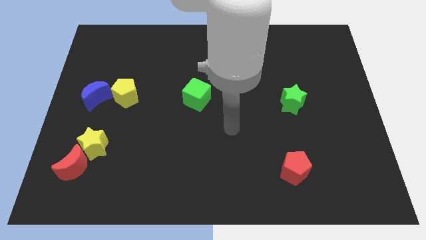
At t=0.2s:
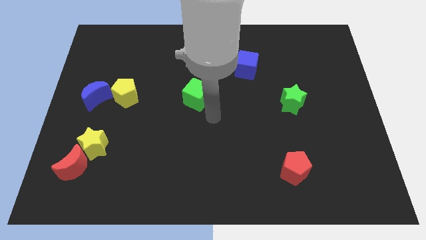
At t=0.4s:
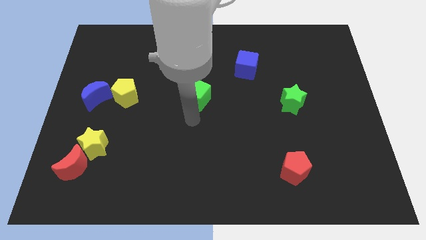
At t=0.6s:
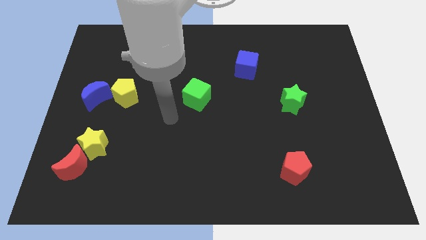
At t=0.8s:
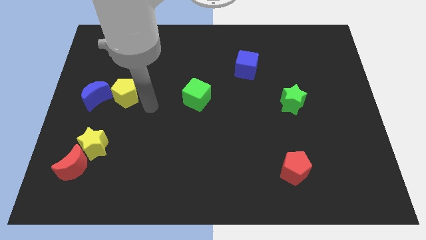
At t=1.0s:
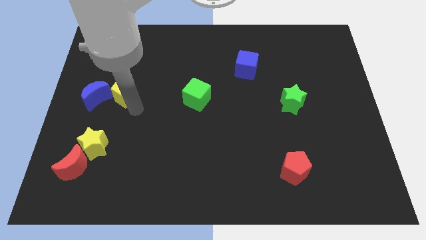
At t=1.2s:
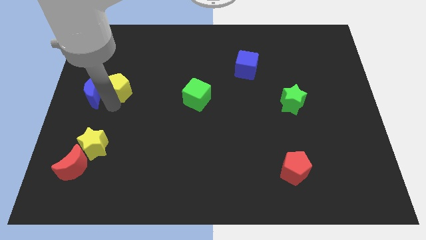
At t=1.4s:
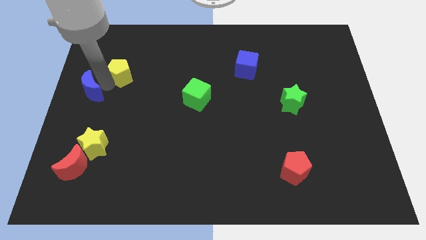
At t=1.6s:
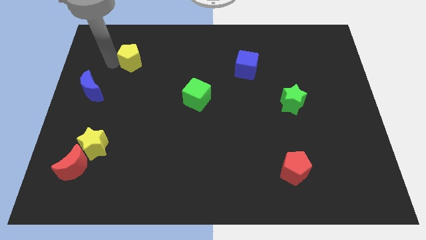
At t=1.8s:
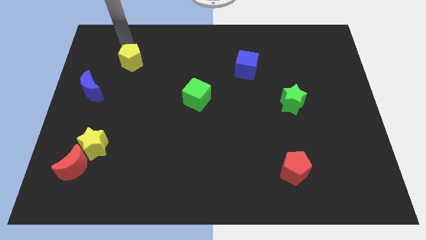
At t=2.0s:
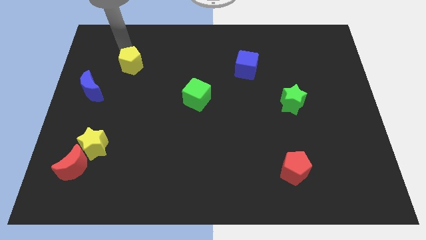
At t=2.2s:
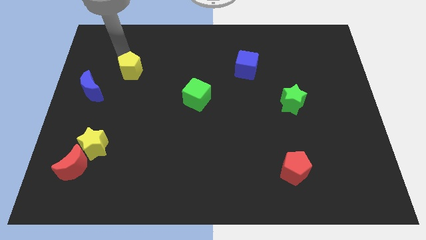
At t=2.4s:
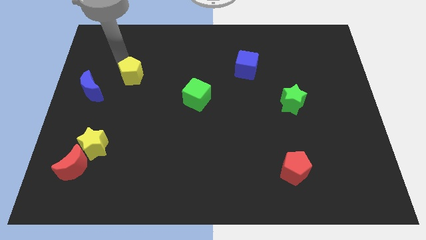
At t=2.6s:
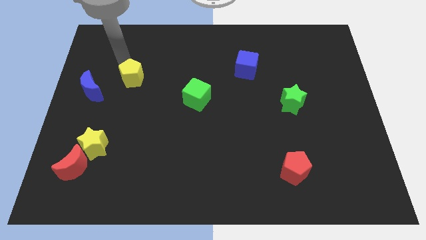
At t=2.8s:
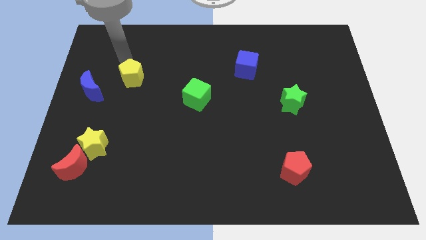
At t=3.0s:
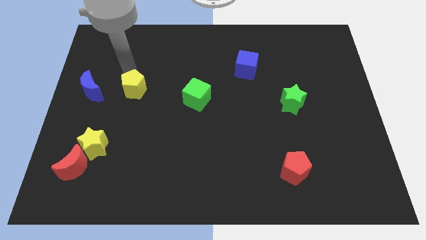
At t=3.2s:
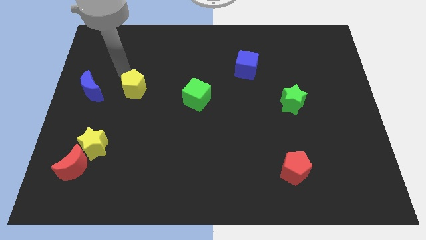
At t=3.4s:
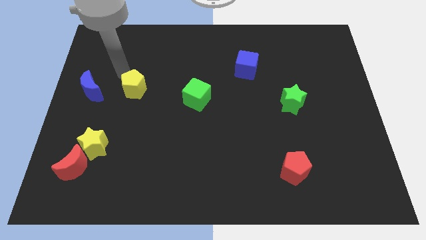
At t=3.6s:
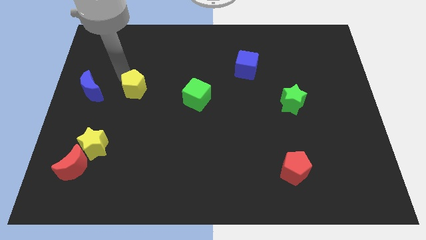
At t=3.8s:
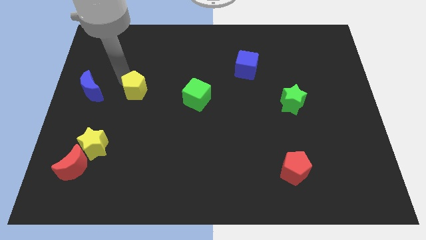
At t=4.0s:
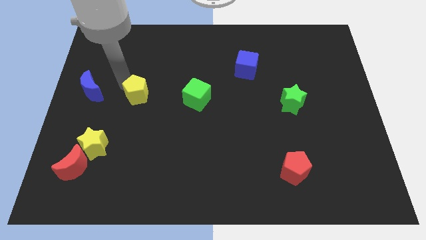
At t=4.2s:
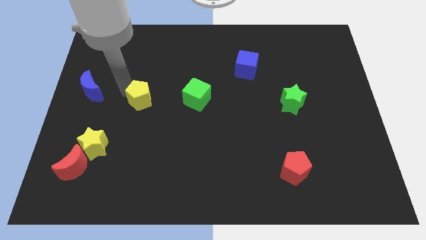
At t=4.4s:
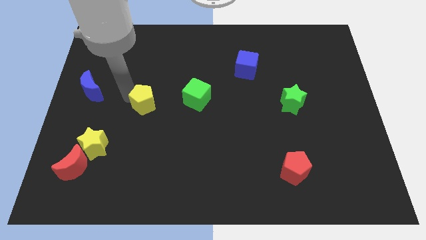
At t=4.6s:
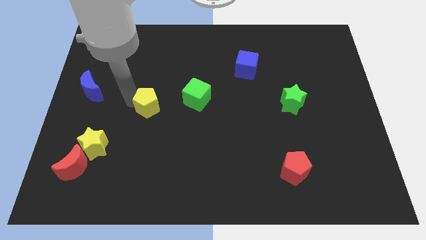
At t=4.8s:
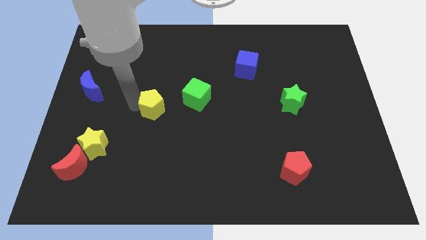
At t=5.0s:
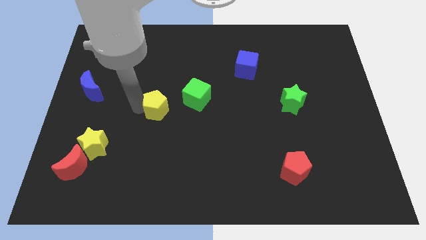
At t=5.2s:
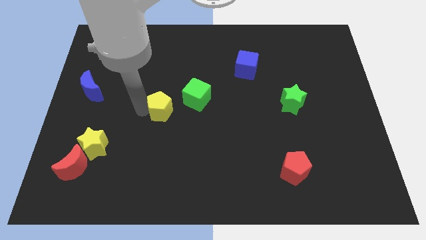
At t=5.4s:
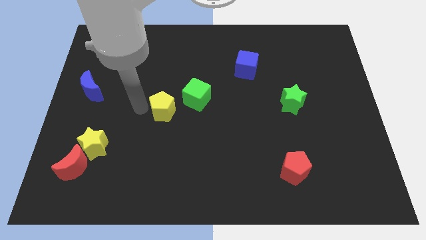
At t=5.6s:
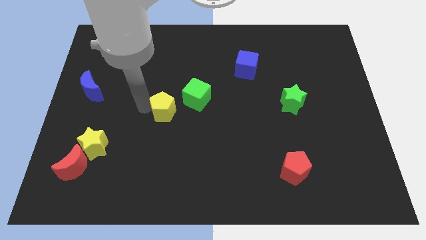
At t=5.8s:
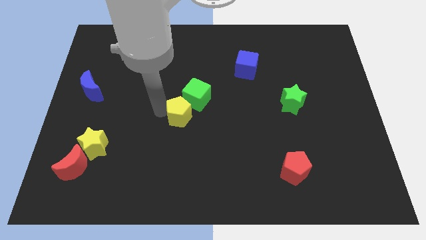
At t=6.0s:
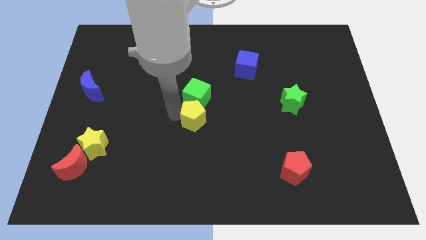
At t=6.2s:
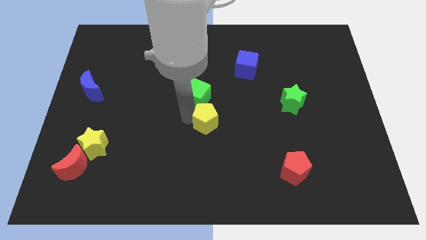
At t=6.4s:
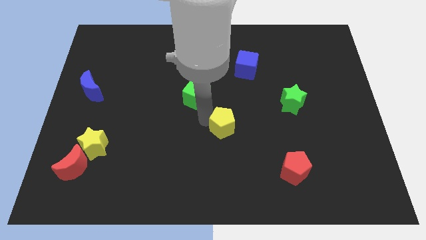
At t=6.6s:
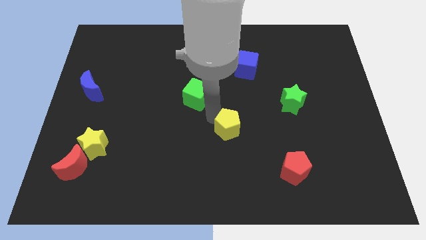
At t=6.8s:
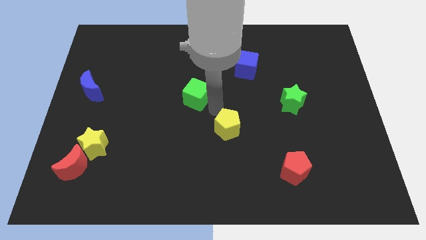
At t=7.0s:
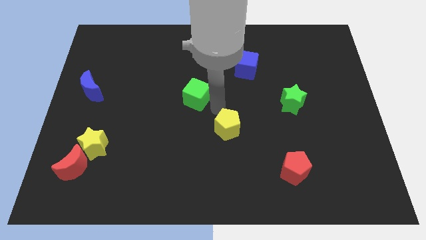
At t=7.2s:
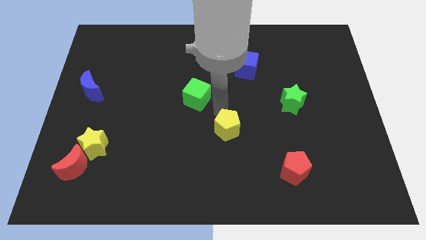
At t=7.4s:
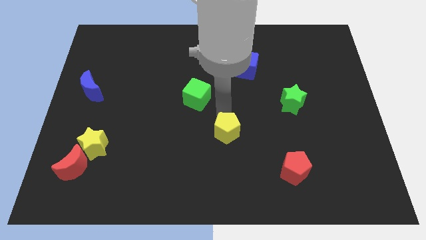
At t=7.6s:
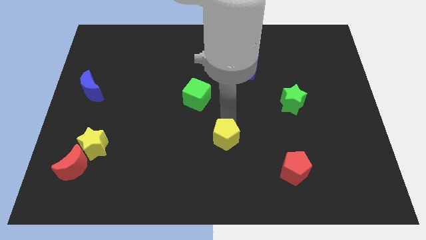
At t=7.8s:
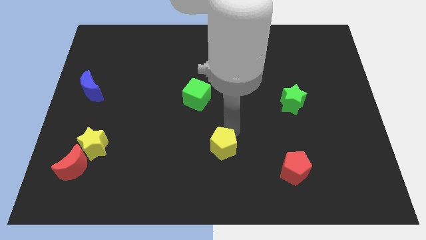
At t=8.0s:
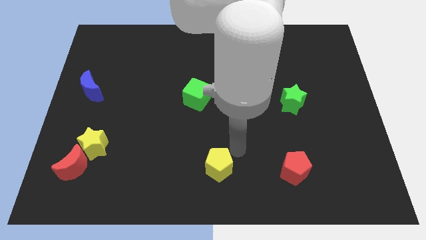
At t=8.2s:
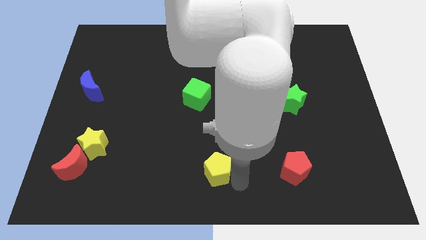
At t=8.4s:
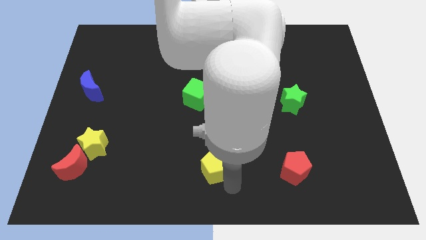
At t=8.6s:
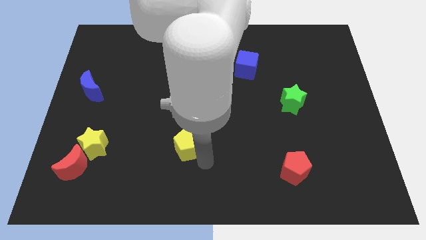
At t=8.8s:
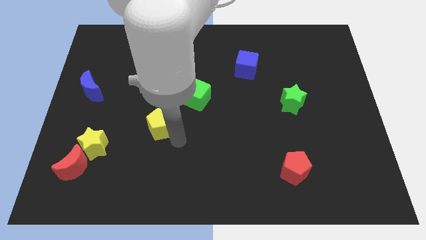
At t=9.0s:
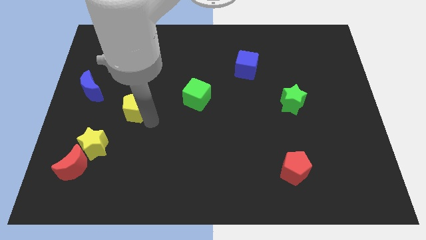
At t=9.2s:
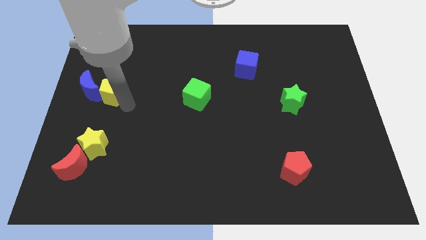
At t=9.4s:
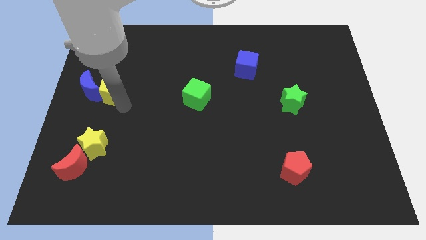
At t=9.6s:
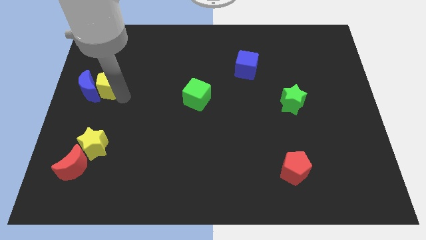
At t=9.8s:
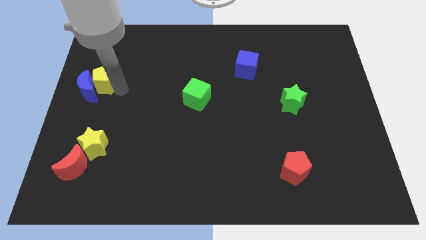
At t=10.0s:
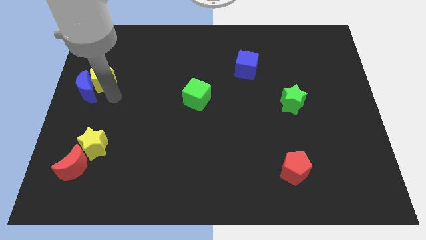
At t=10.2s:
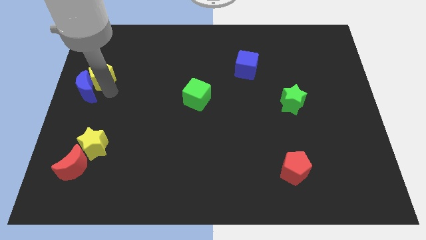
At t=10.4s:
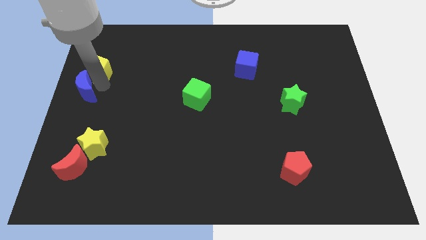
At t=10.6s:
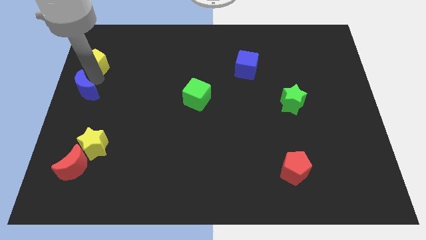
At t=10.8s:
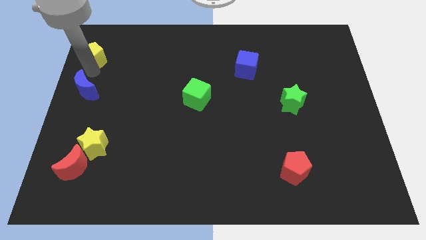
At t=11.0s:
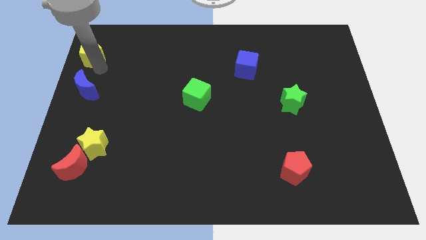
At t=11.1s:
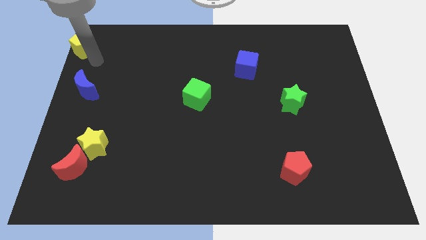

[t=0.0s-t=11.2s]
put the yellow pentagon to the top left

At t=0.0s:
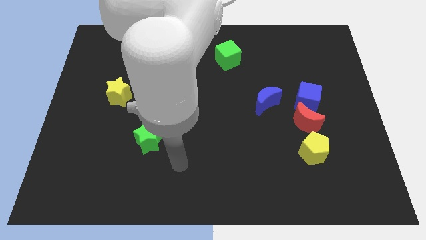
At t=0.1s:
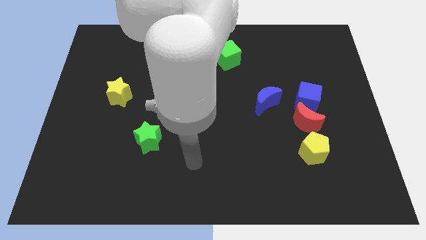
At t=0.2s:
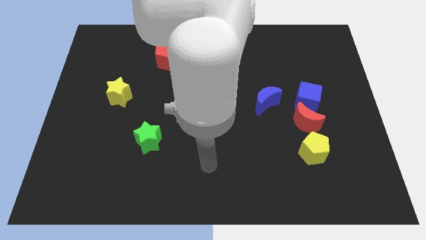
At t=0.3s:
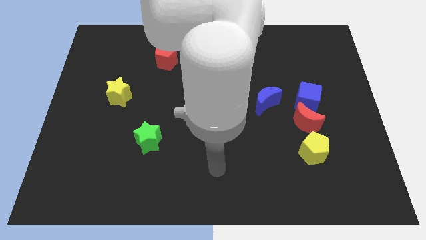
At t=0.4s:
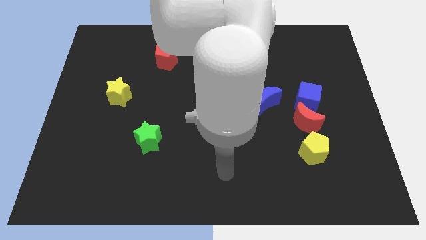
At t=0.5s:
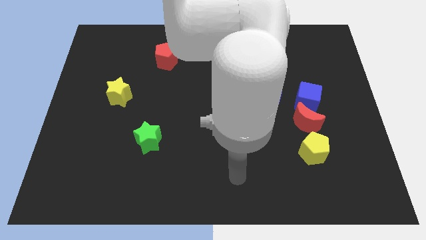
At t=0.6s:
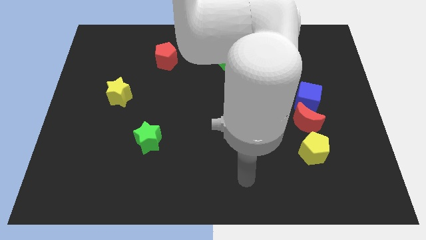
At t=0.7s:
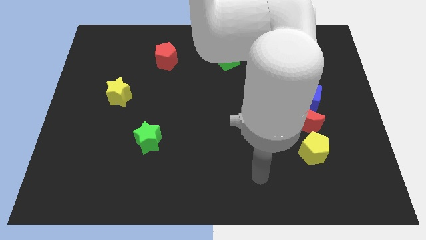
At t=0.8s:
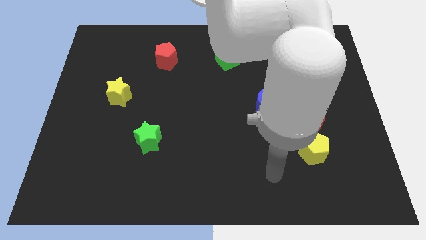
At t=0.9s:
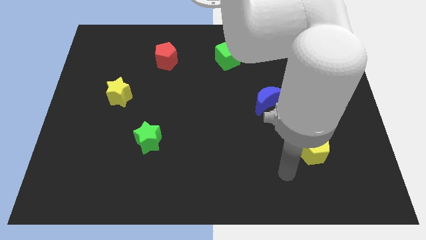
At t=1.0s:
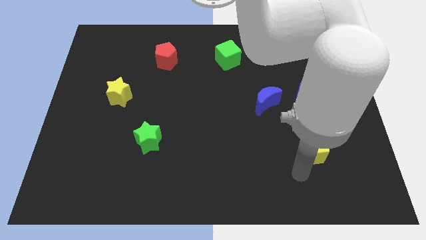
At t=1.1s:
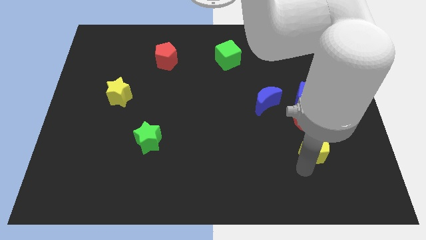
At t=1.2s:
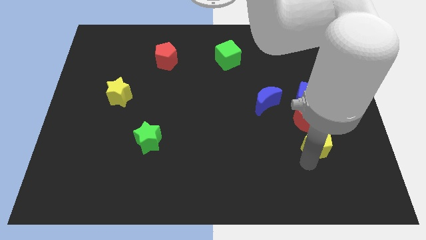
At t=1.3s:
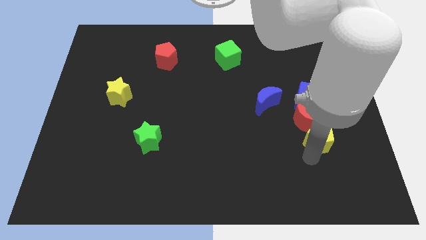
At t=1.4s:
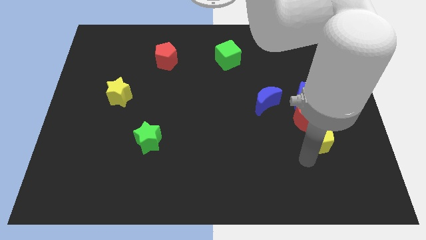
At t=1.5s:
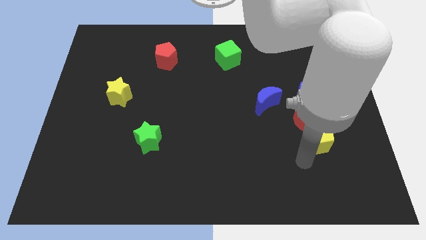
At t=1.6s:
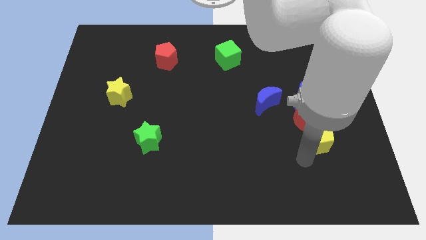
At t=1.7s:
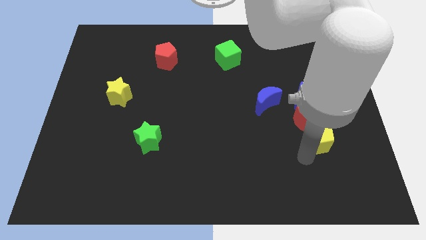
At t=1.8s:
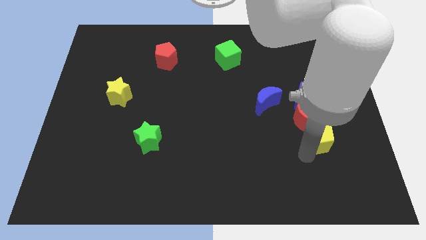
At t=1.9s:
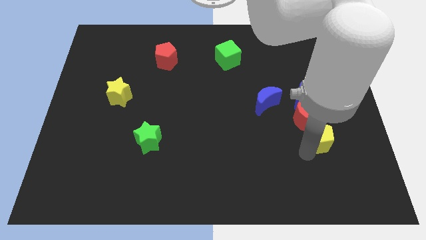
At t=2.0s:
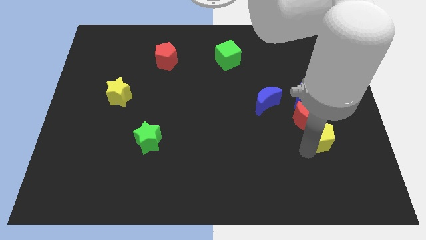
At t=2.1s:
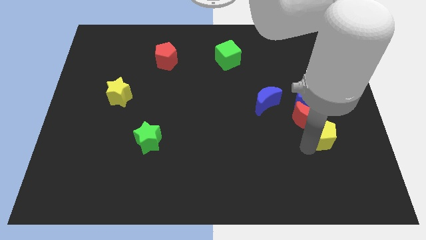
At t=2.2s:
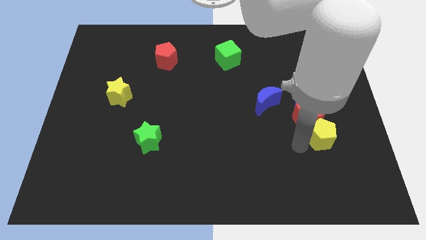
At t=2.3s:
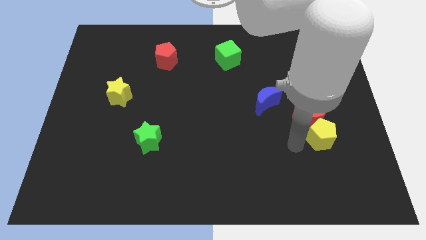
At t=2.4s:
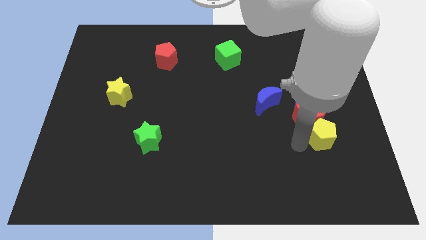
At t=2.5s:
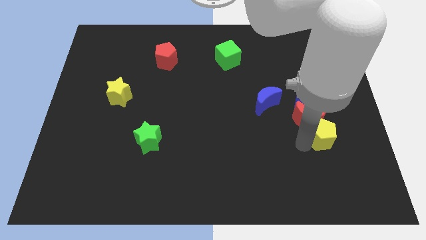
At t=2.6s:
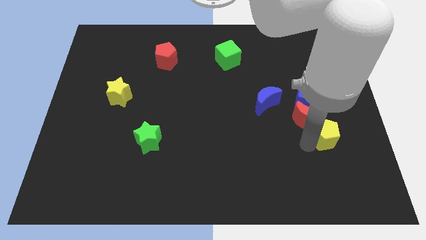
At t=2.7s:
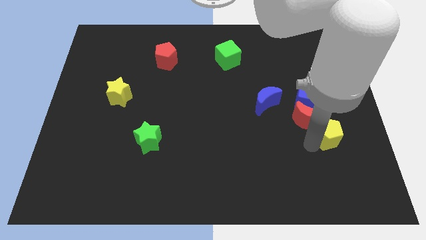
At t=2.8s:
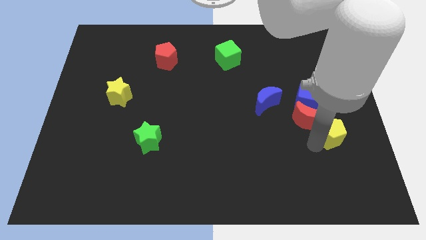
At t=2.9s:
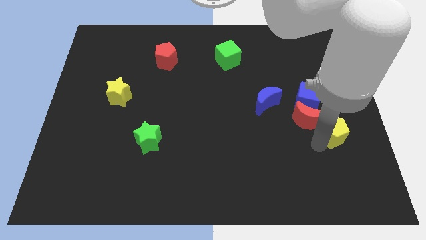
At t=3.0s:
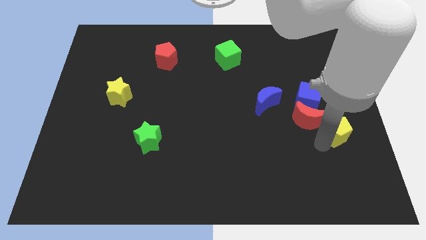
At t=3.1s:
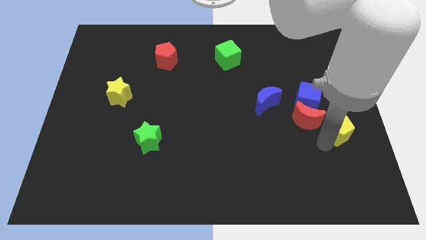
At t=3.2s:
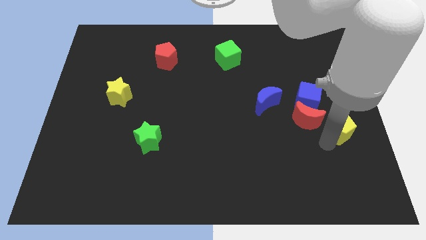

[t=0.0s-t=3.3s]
push the yellow pentagon to the right side of the board
